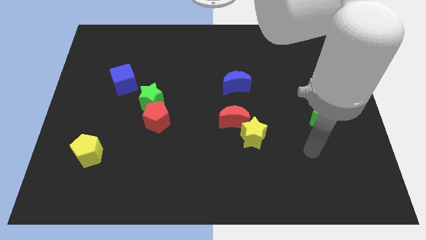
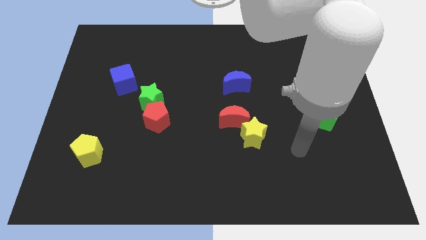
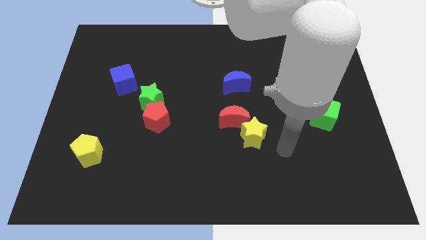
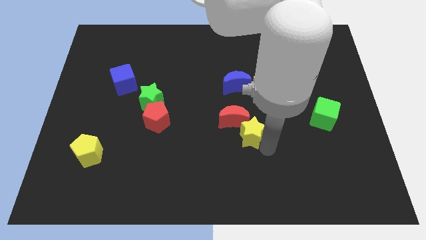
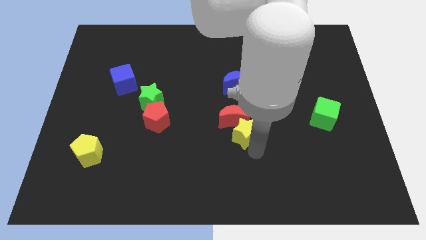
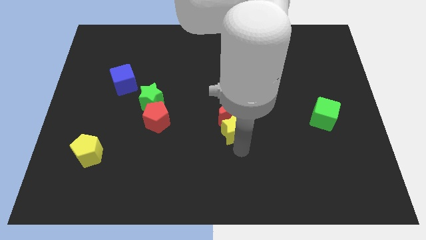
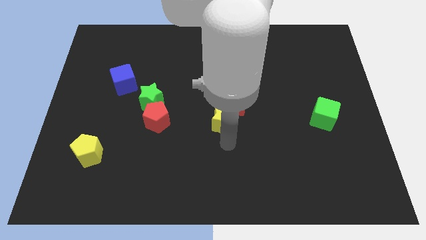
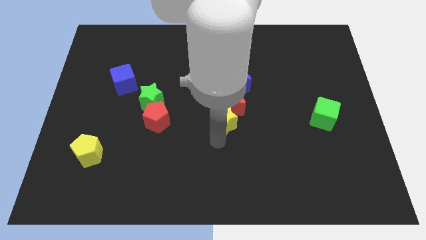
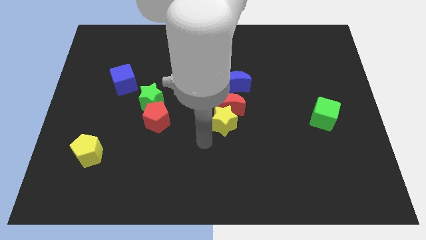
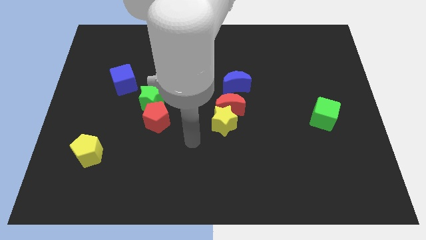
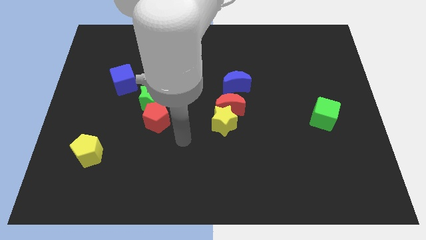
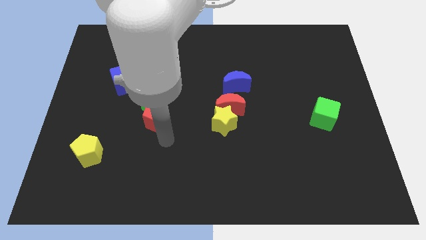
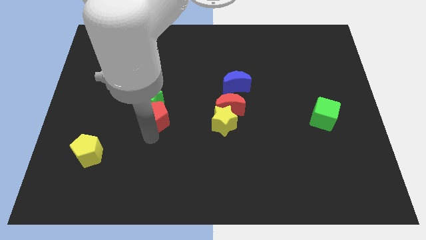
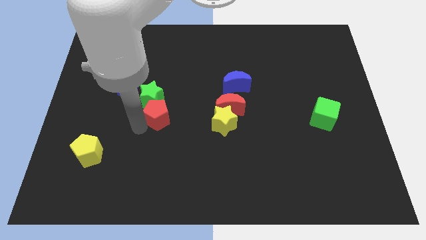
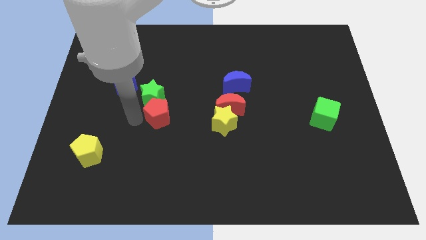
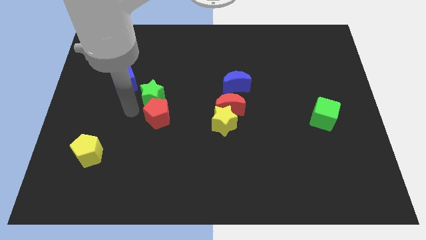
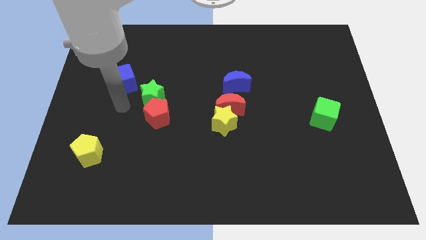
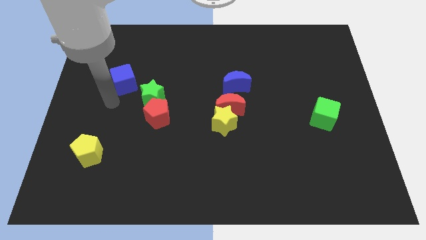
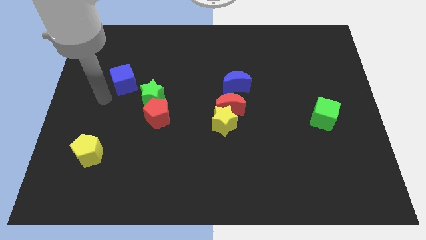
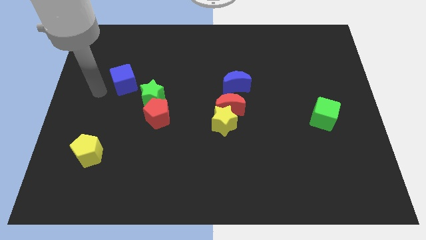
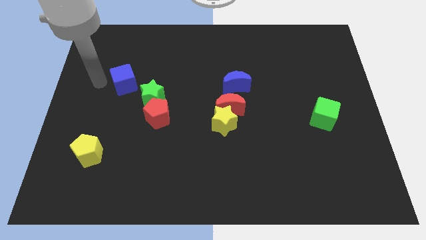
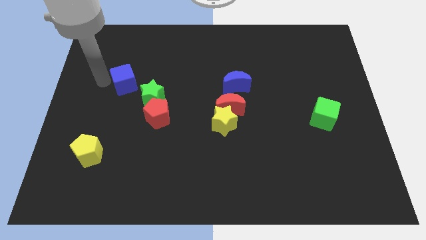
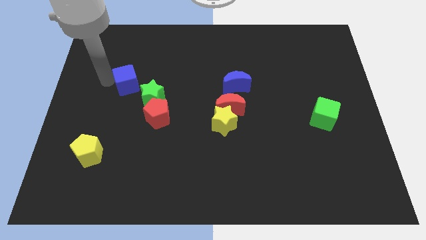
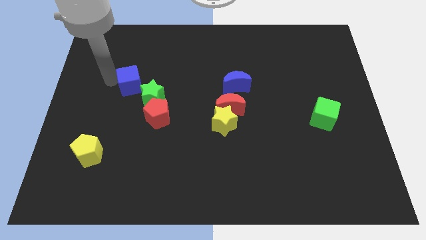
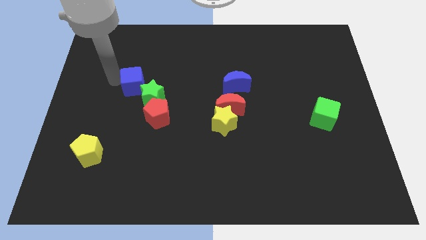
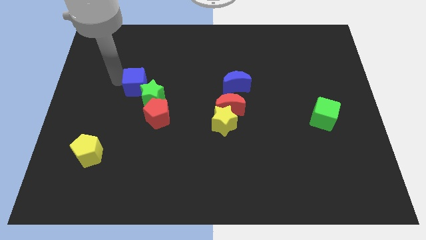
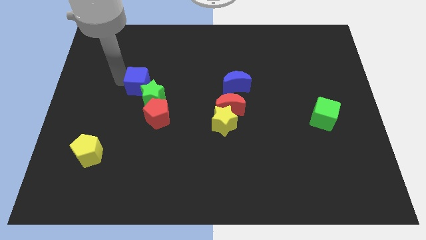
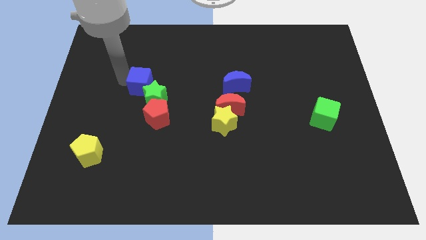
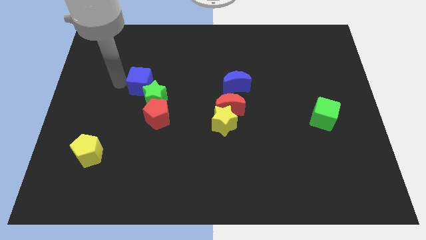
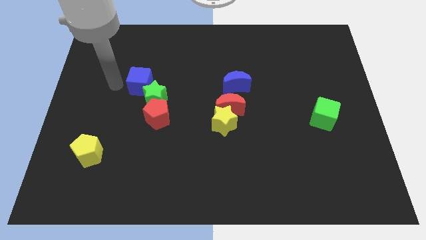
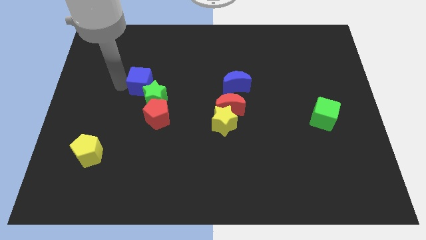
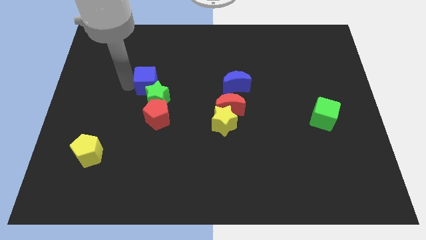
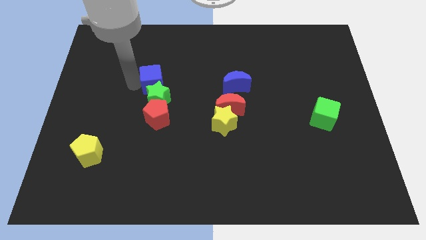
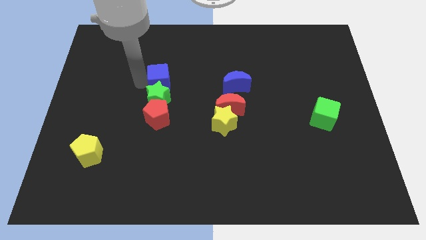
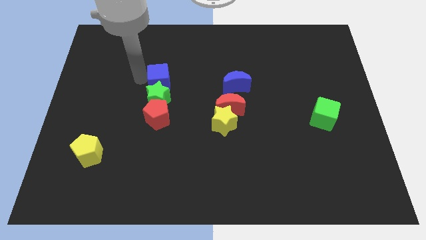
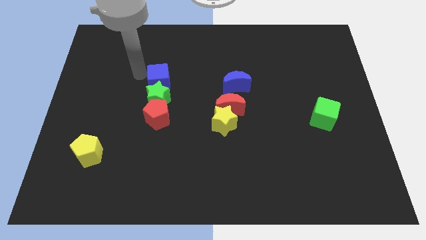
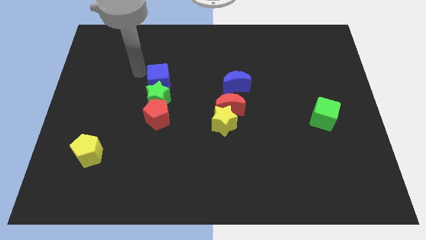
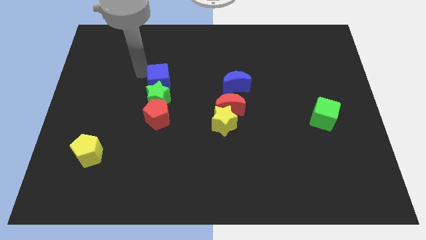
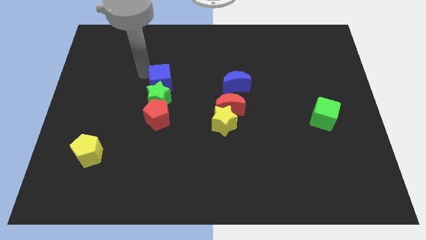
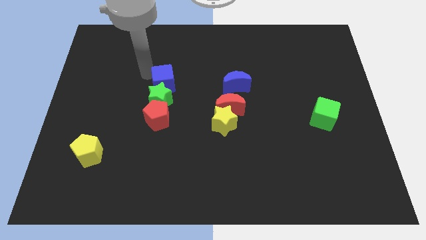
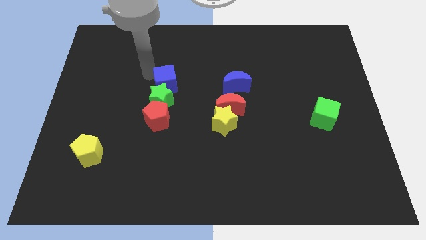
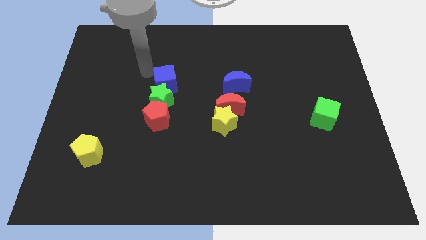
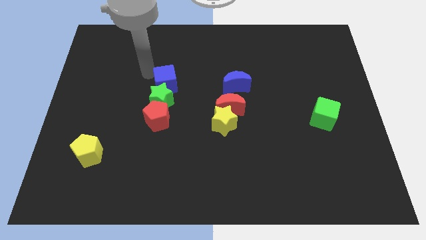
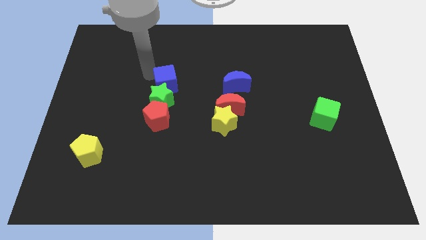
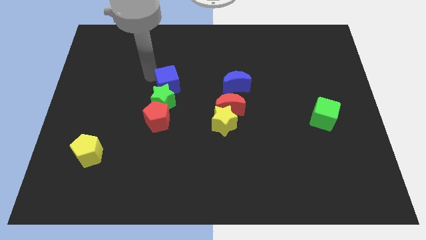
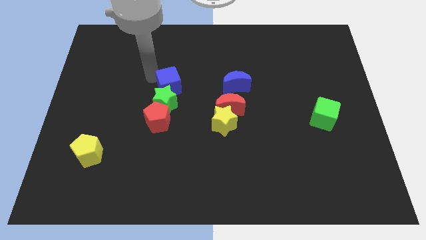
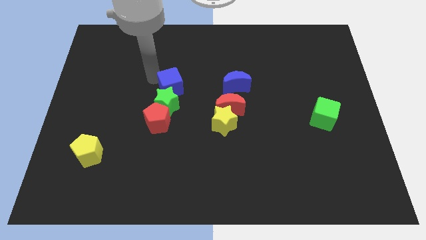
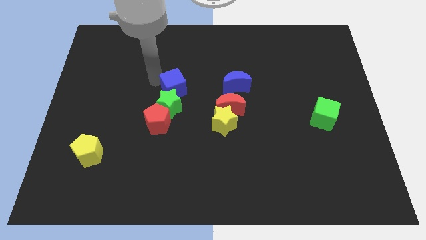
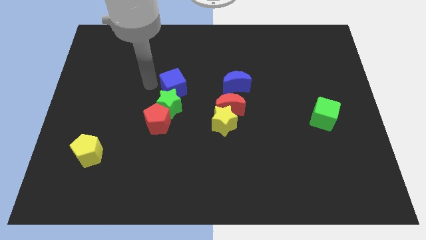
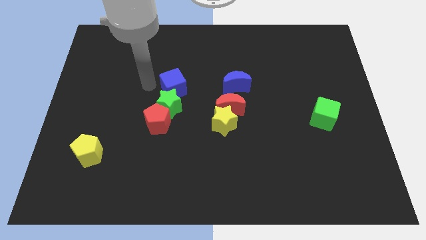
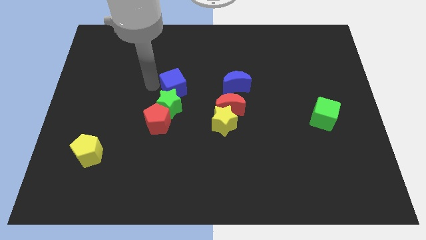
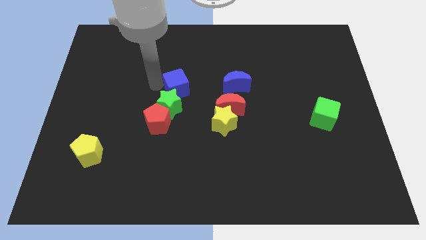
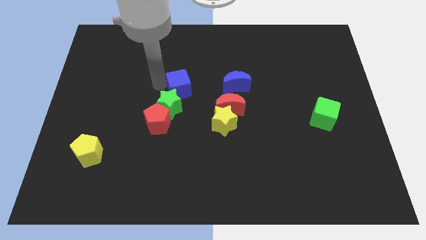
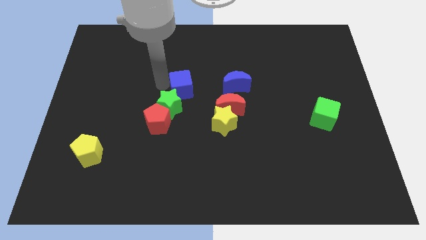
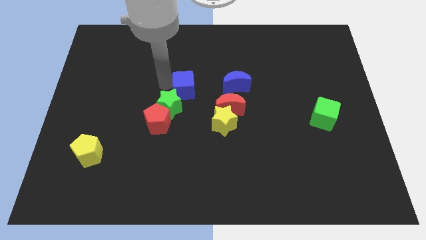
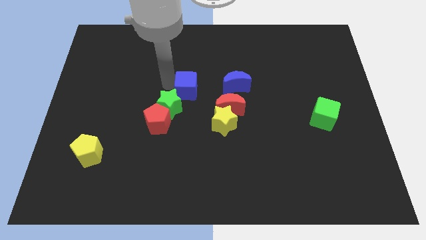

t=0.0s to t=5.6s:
put the blue cube to the top left of the red moon

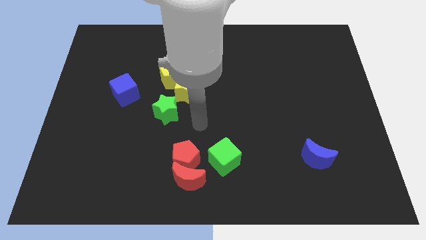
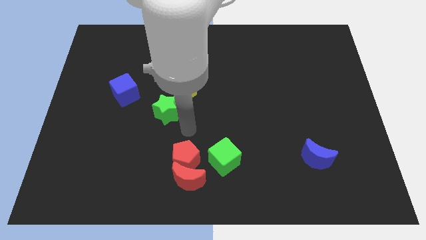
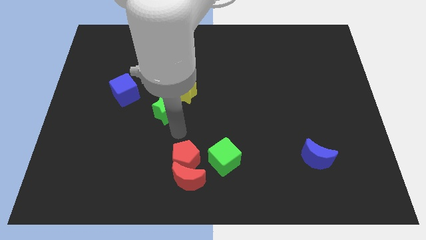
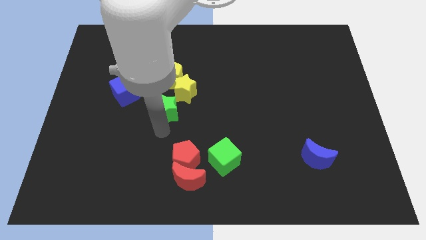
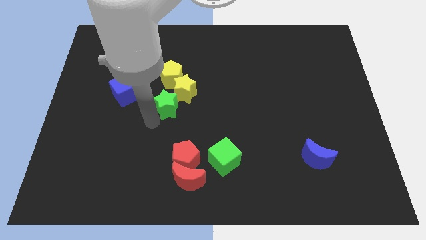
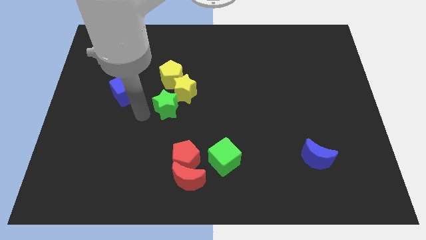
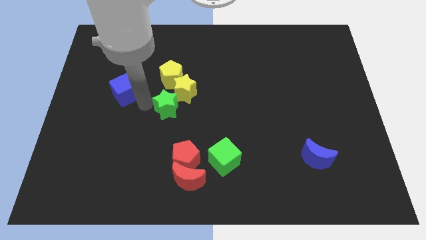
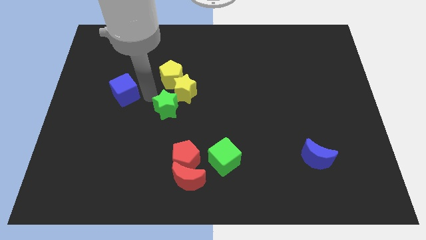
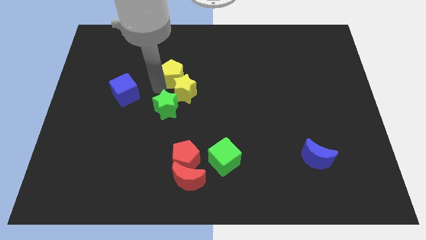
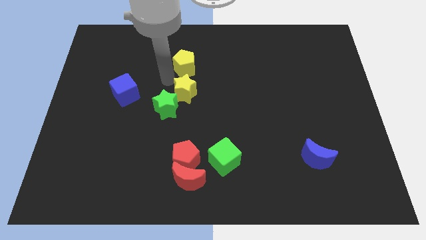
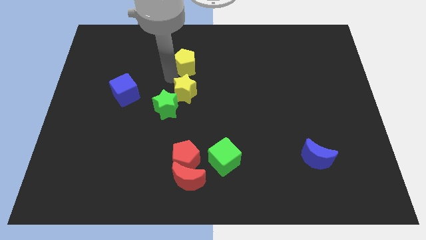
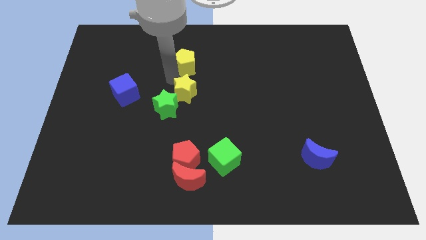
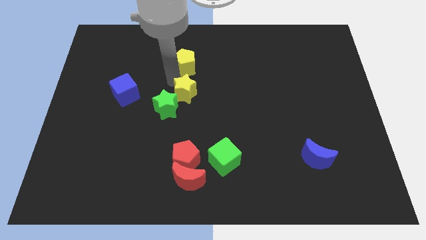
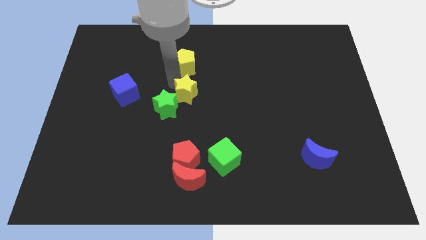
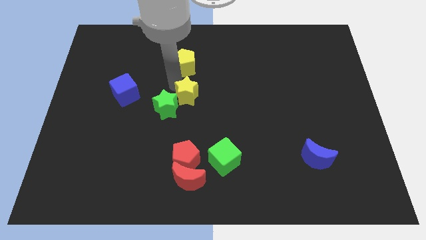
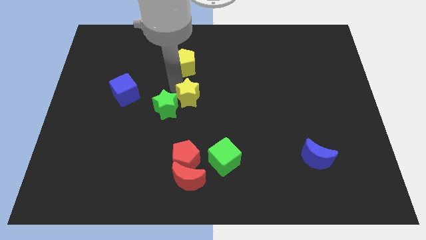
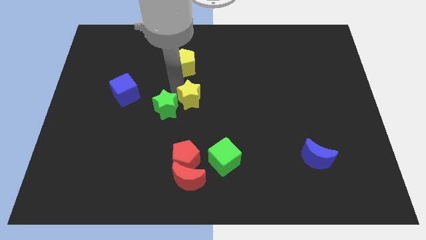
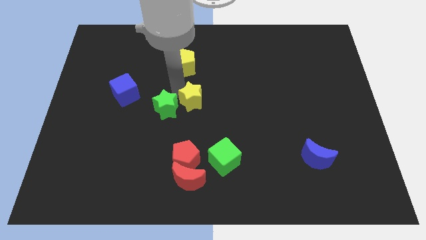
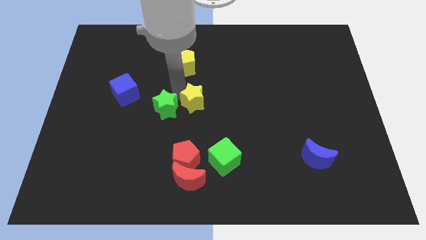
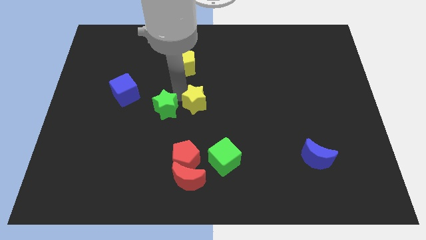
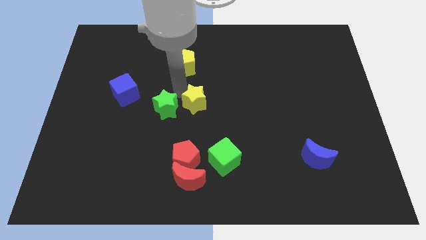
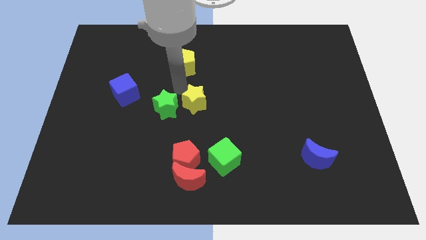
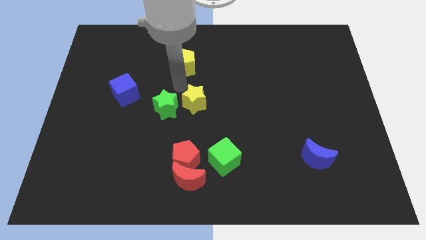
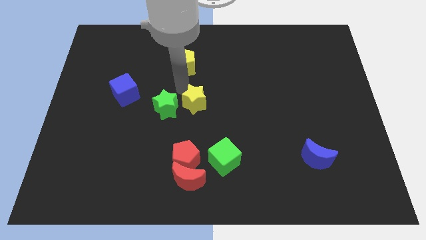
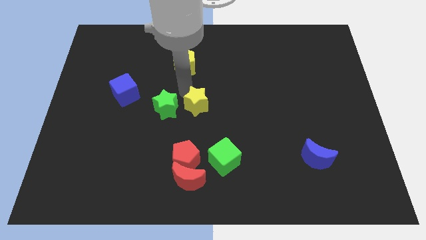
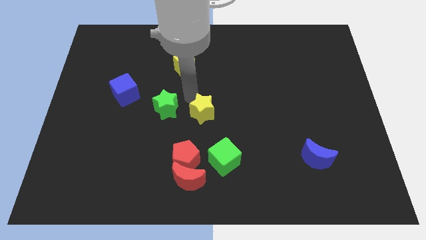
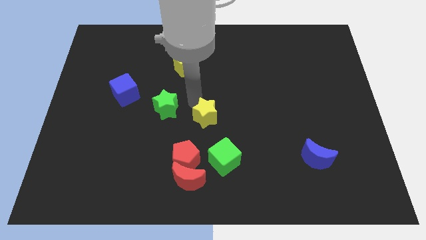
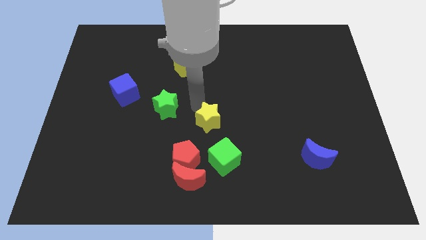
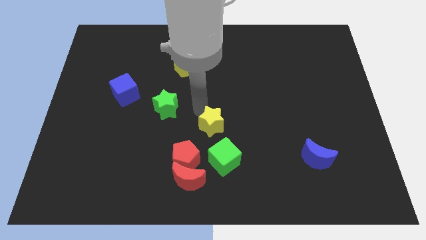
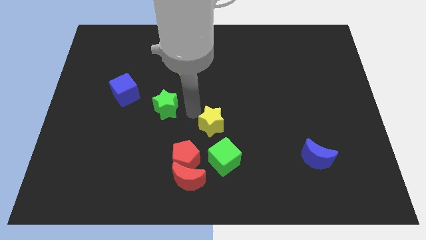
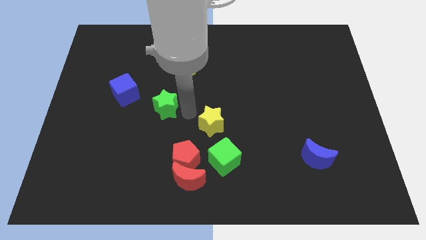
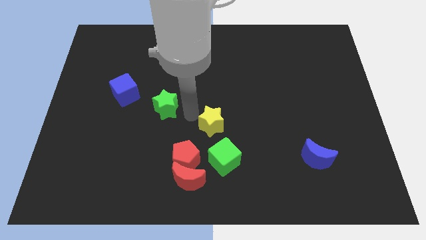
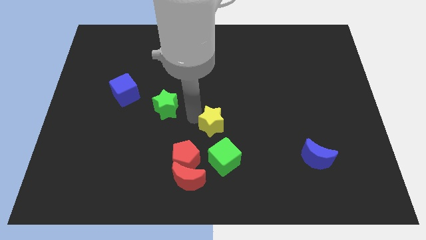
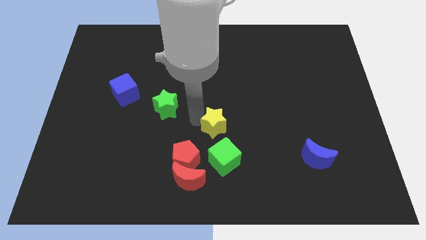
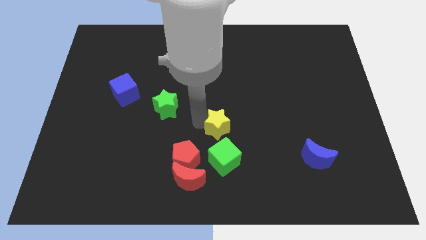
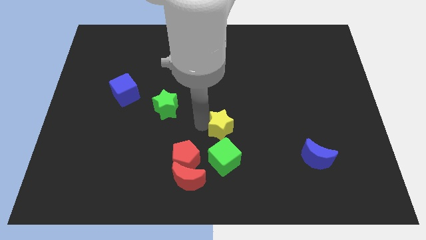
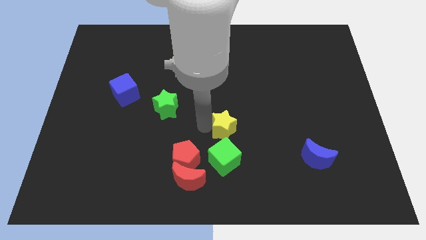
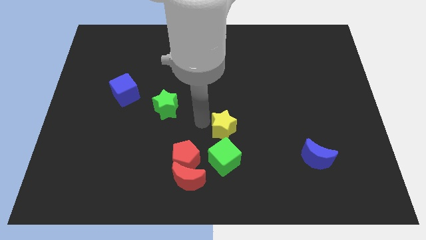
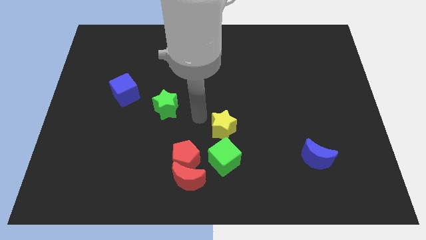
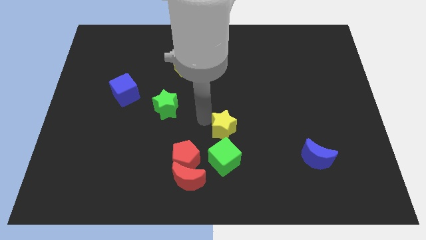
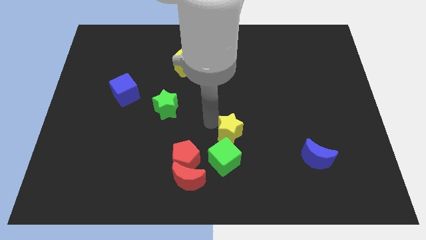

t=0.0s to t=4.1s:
move the yellow star diagonally up and to the right of the green cube
